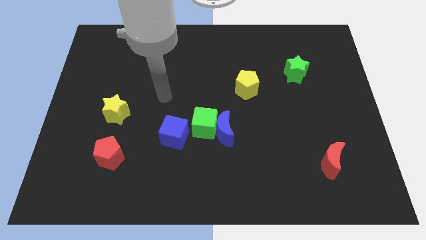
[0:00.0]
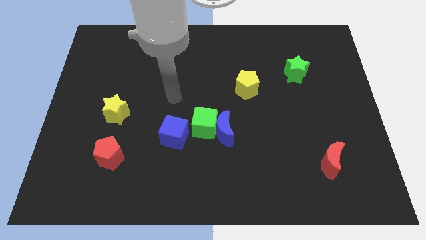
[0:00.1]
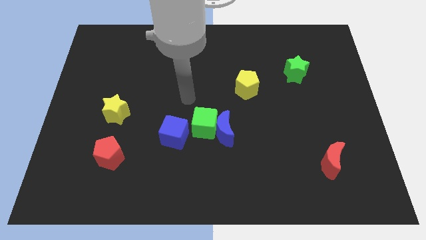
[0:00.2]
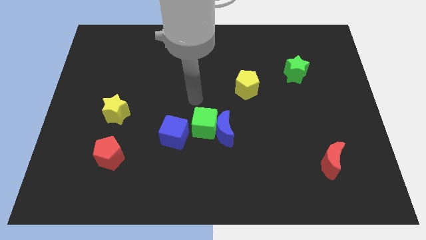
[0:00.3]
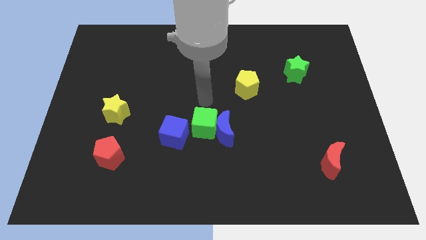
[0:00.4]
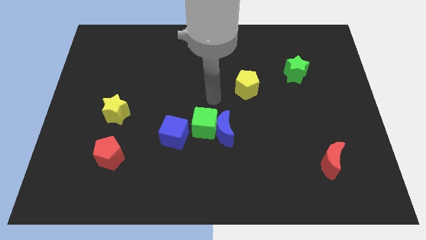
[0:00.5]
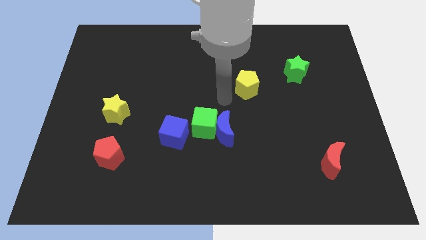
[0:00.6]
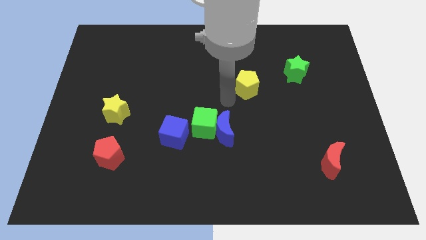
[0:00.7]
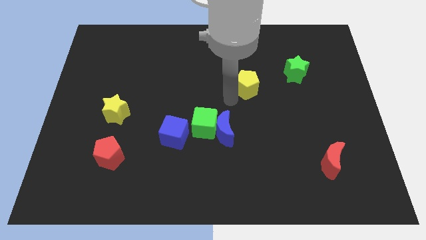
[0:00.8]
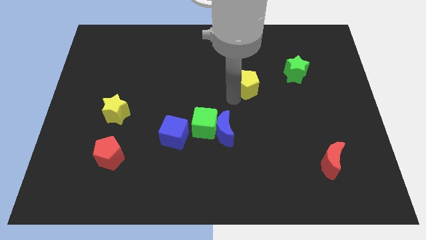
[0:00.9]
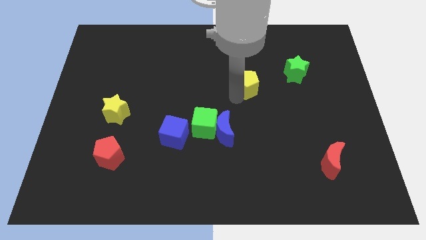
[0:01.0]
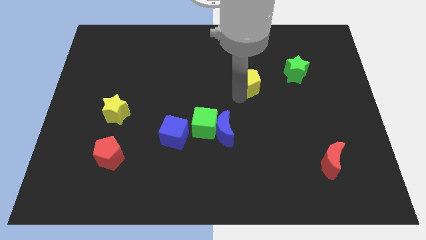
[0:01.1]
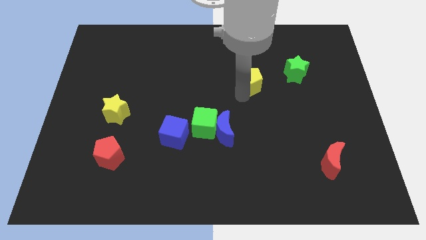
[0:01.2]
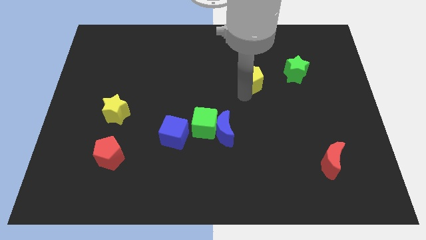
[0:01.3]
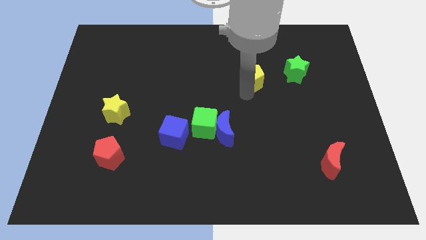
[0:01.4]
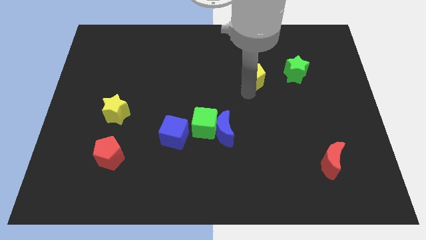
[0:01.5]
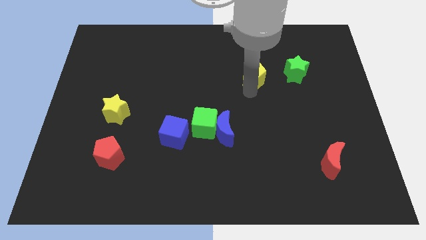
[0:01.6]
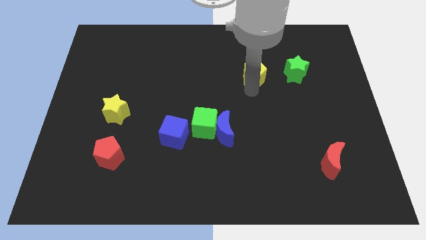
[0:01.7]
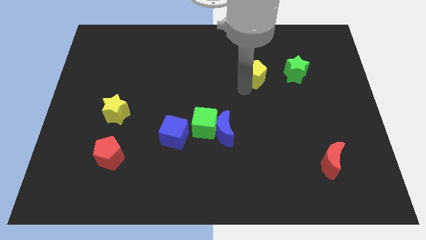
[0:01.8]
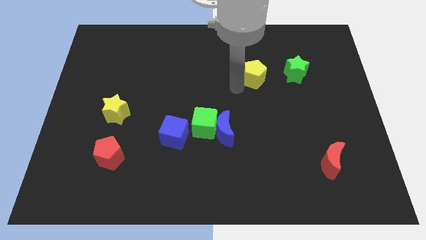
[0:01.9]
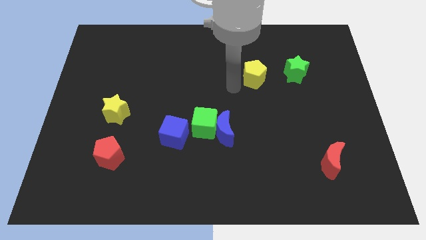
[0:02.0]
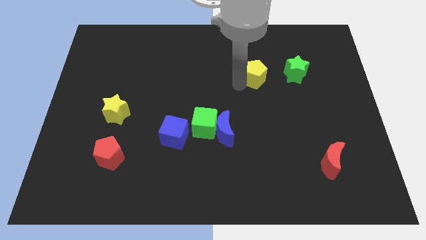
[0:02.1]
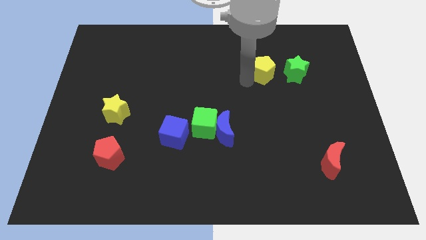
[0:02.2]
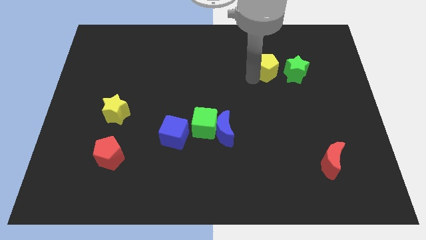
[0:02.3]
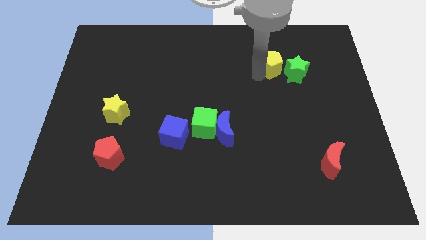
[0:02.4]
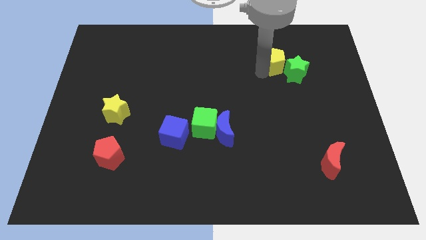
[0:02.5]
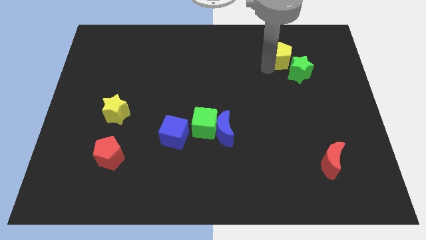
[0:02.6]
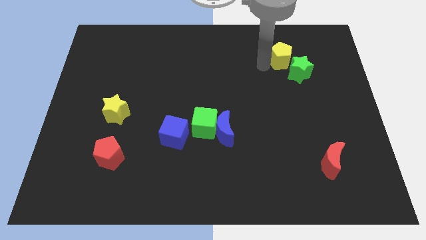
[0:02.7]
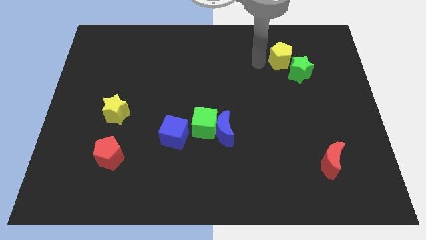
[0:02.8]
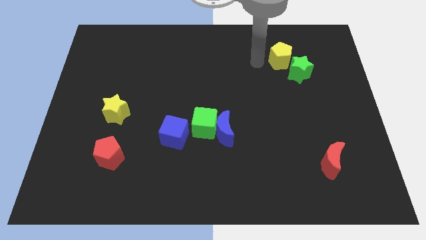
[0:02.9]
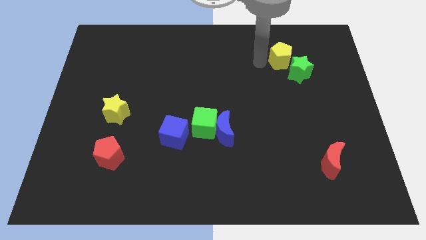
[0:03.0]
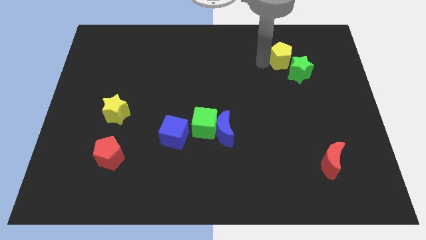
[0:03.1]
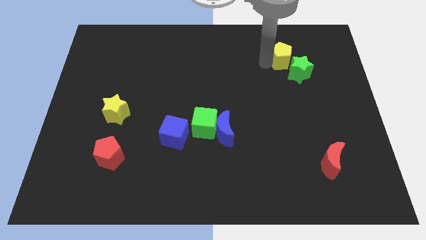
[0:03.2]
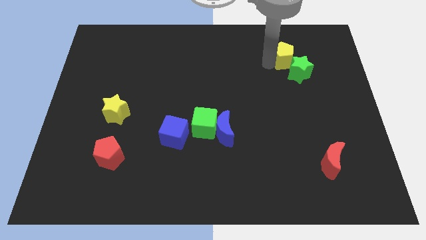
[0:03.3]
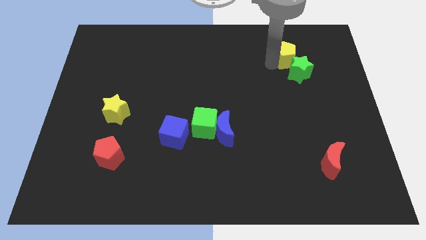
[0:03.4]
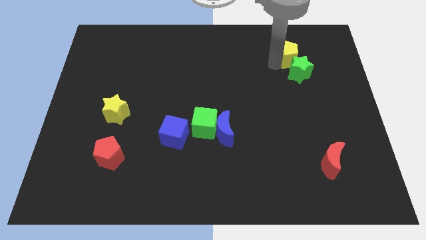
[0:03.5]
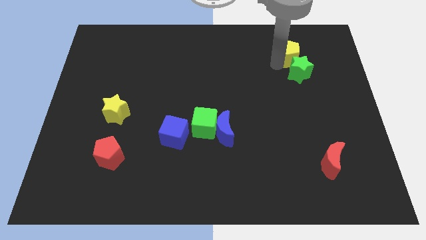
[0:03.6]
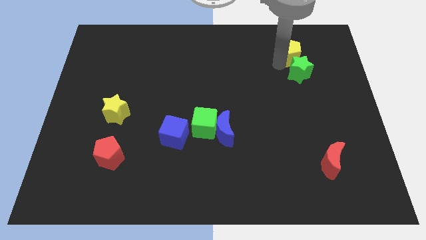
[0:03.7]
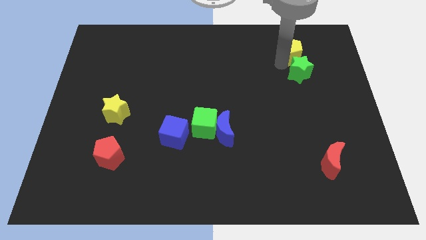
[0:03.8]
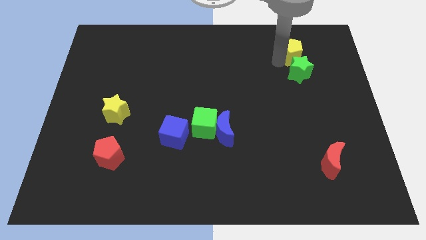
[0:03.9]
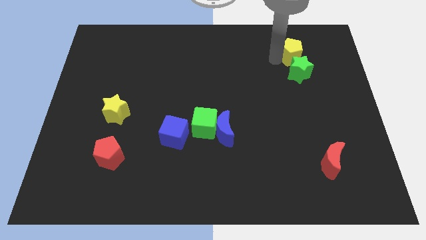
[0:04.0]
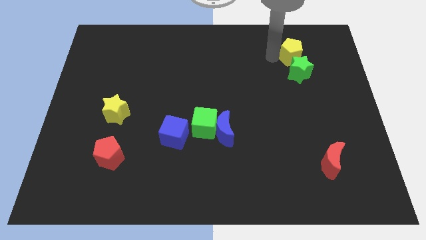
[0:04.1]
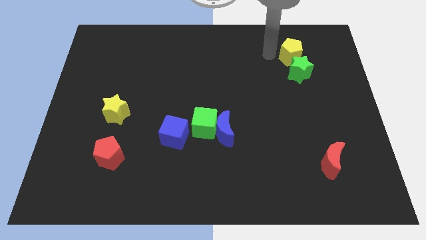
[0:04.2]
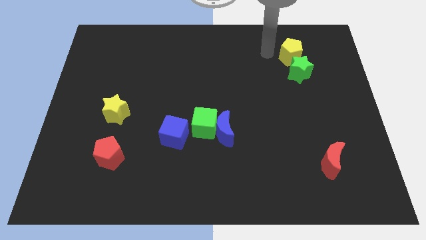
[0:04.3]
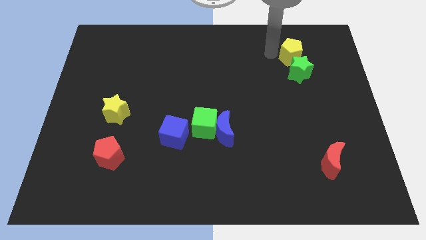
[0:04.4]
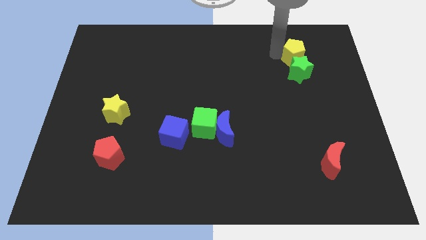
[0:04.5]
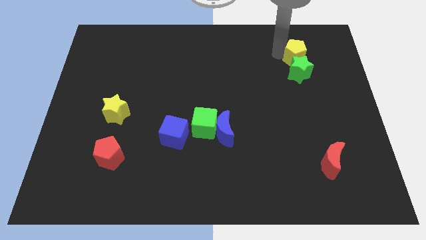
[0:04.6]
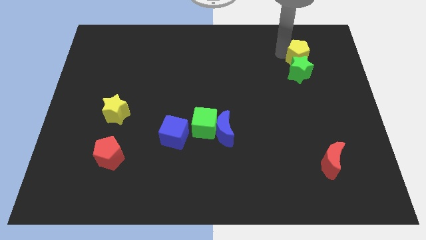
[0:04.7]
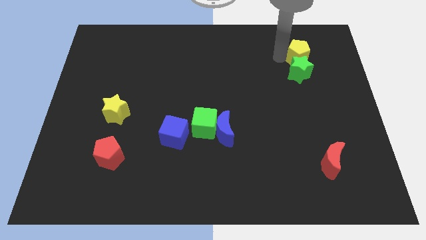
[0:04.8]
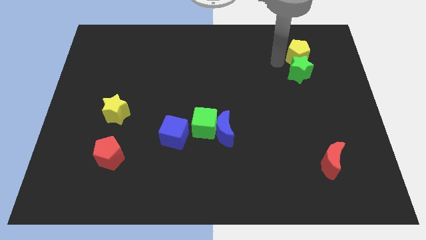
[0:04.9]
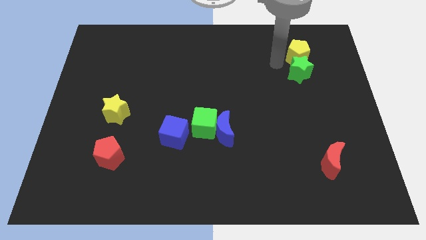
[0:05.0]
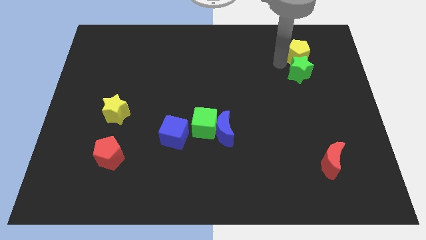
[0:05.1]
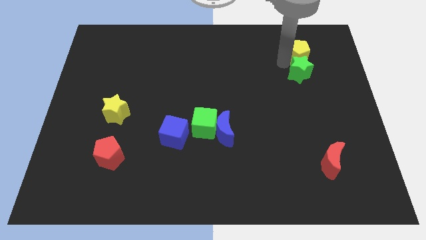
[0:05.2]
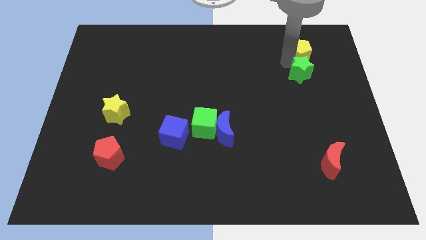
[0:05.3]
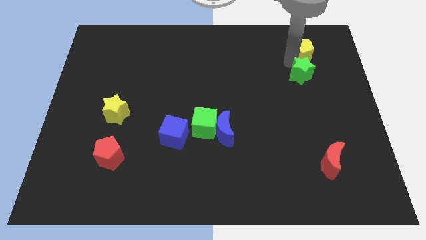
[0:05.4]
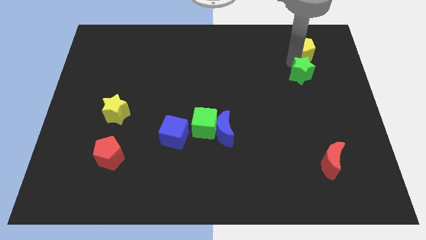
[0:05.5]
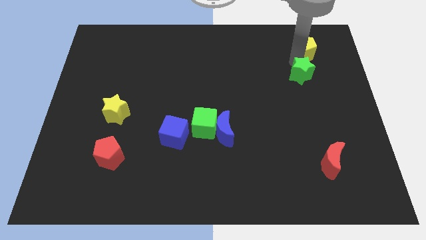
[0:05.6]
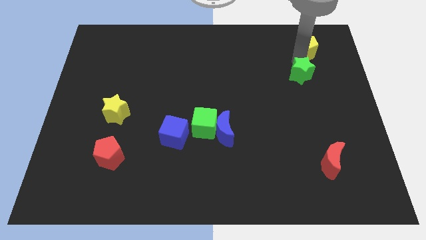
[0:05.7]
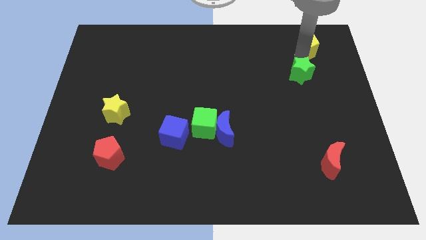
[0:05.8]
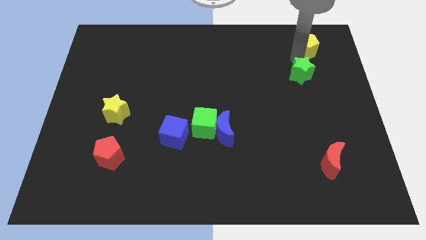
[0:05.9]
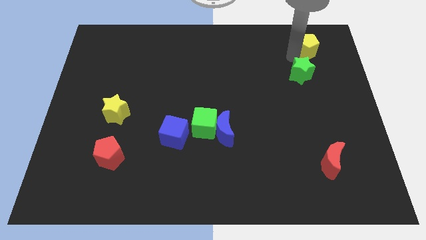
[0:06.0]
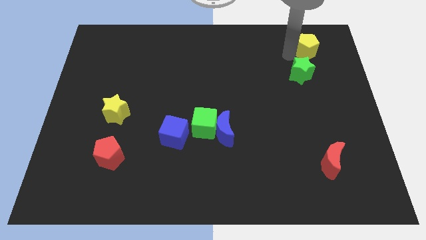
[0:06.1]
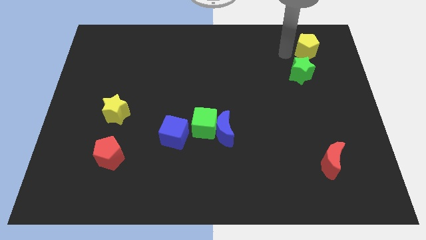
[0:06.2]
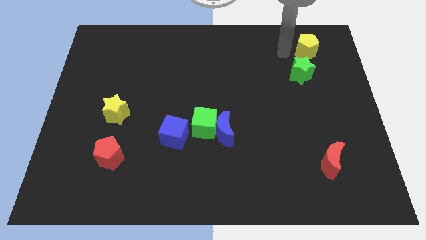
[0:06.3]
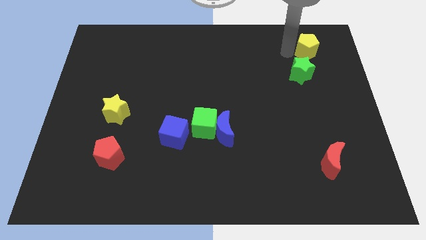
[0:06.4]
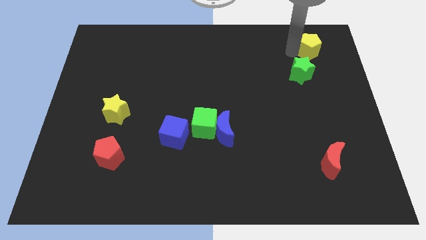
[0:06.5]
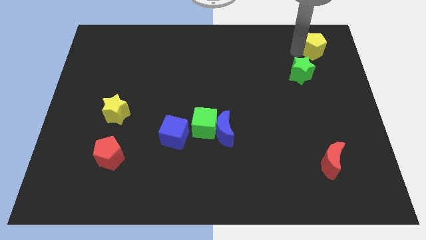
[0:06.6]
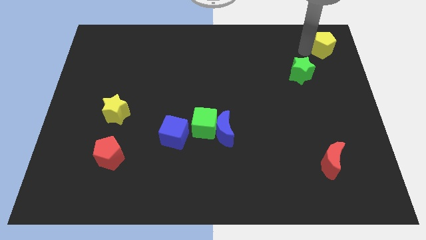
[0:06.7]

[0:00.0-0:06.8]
push the yellow pentagon to the top right of the board
